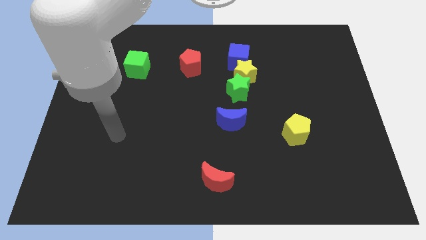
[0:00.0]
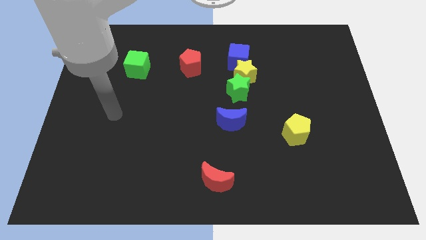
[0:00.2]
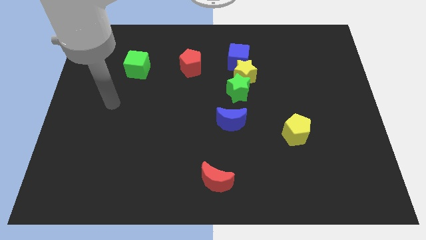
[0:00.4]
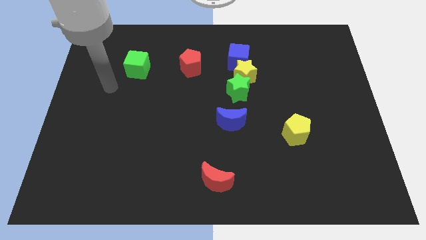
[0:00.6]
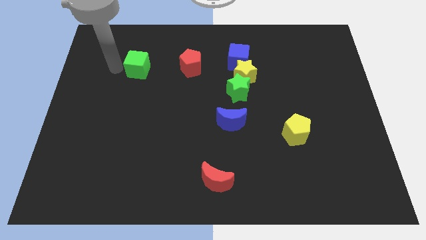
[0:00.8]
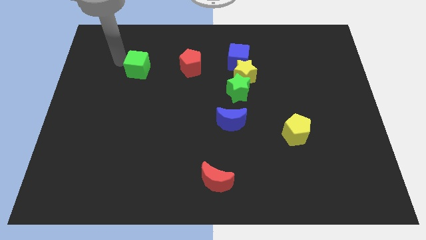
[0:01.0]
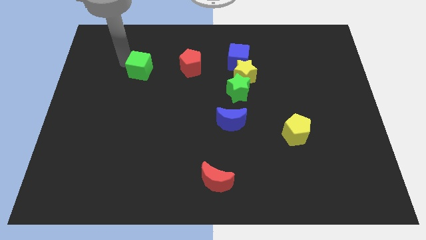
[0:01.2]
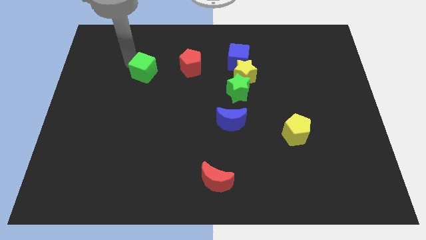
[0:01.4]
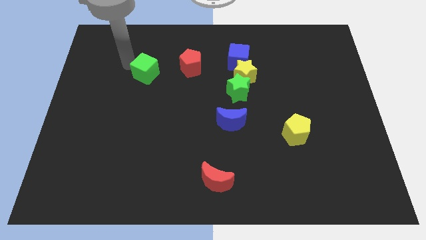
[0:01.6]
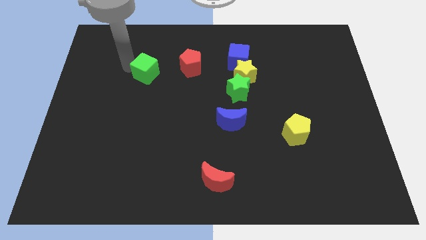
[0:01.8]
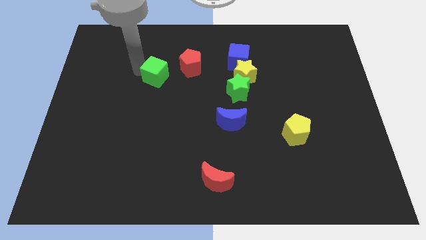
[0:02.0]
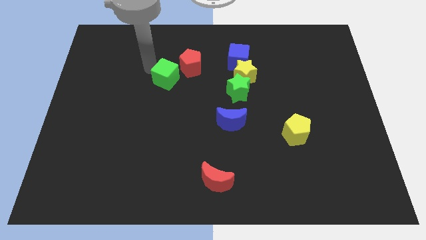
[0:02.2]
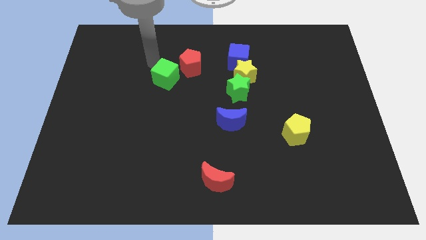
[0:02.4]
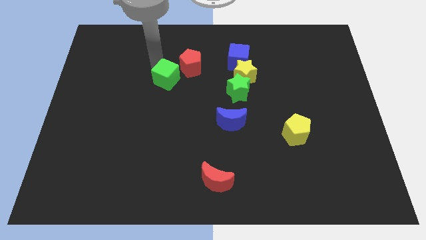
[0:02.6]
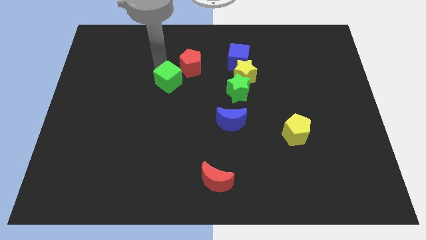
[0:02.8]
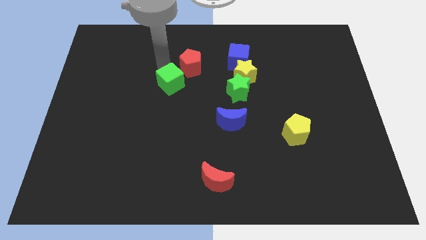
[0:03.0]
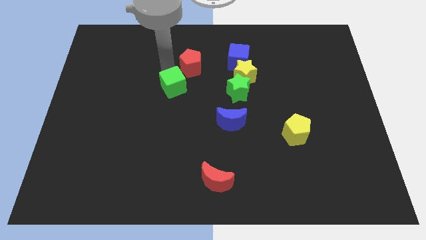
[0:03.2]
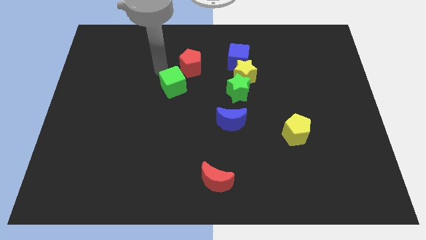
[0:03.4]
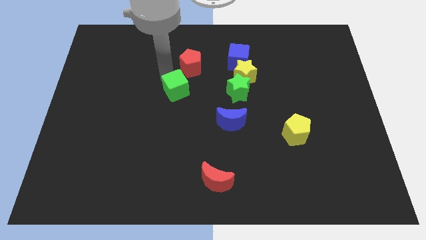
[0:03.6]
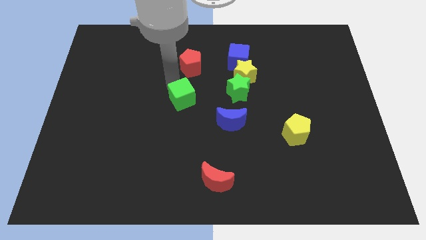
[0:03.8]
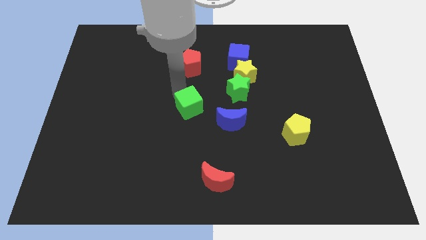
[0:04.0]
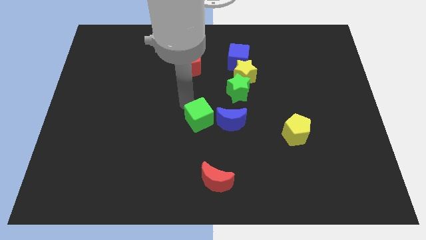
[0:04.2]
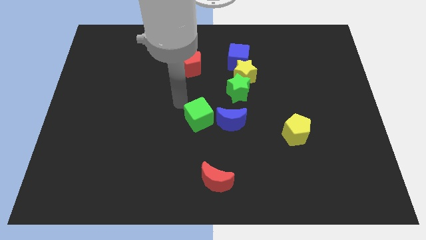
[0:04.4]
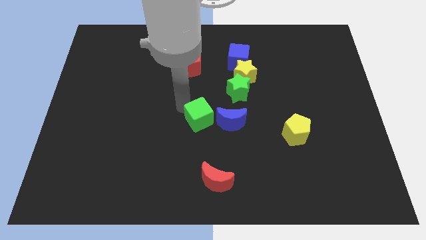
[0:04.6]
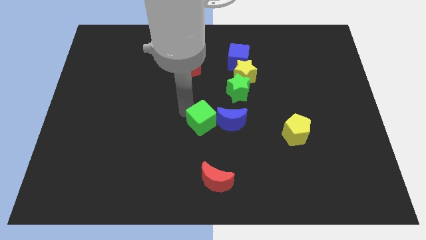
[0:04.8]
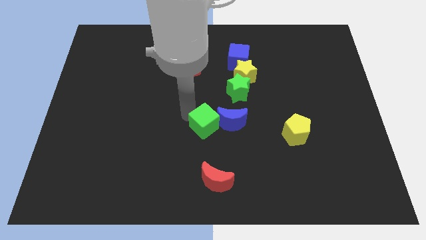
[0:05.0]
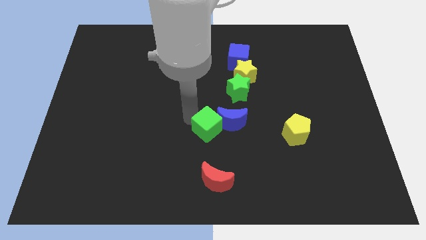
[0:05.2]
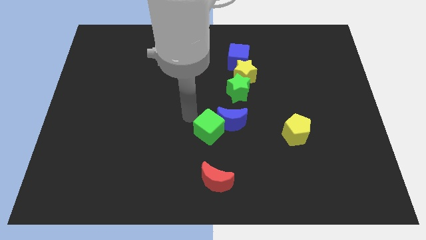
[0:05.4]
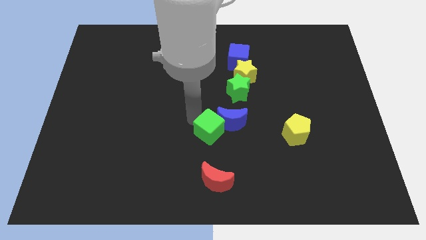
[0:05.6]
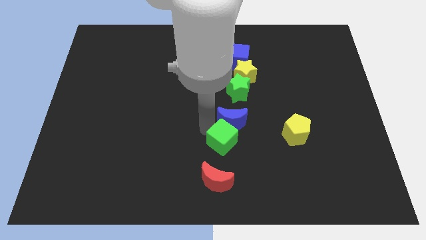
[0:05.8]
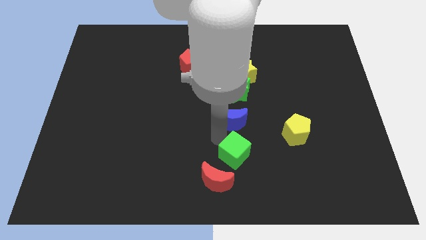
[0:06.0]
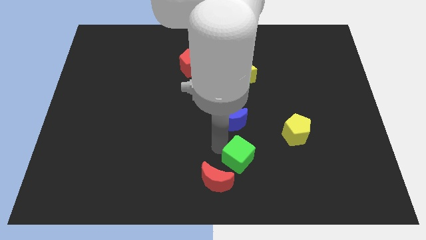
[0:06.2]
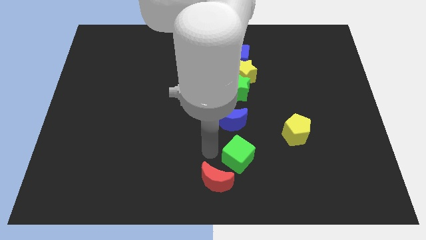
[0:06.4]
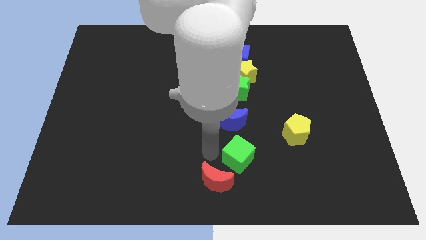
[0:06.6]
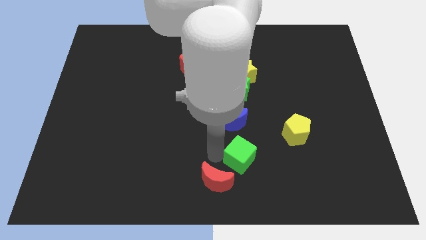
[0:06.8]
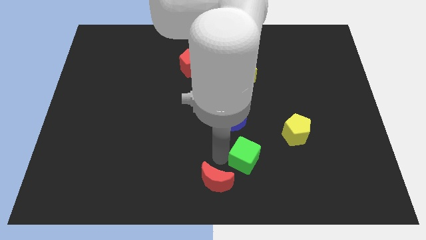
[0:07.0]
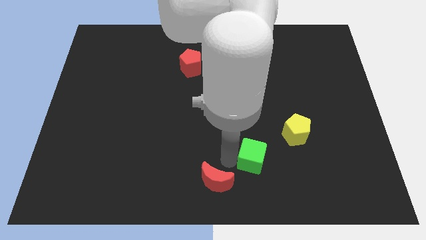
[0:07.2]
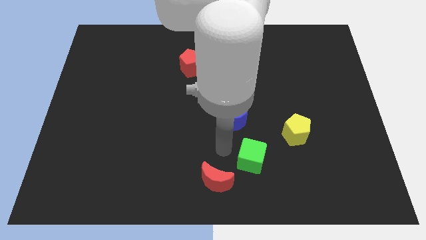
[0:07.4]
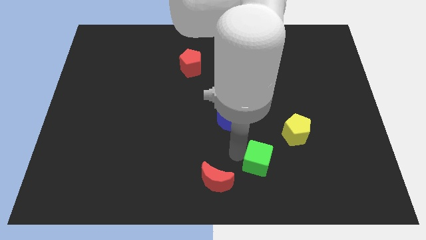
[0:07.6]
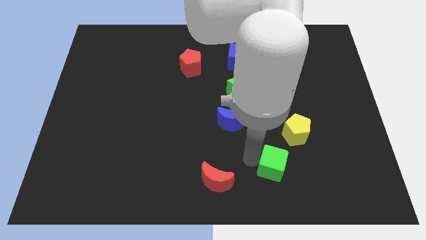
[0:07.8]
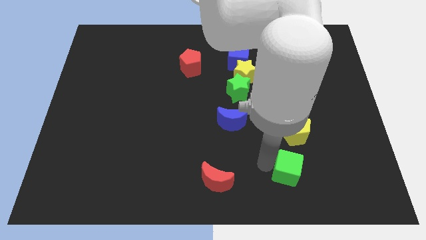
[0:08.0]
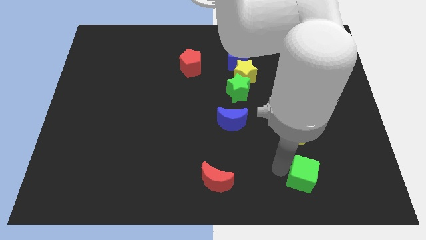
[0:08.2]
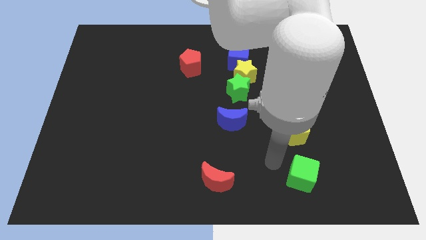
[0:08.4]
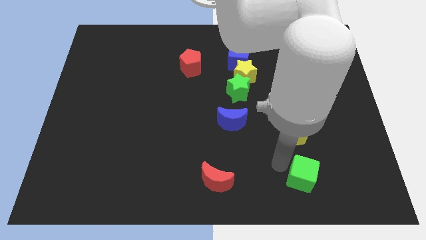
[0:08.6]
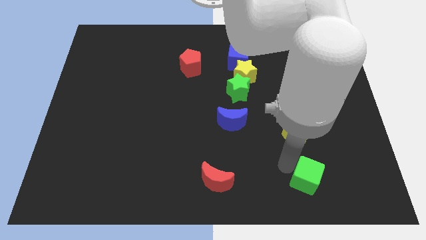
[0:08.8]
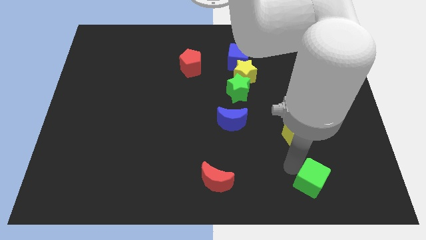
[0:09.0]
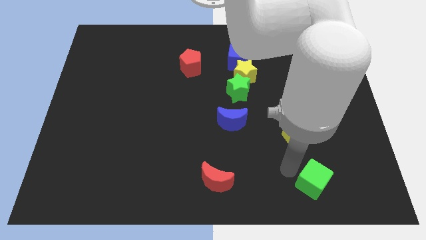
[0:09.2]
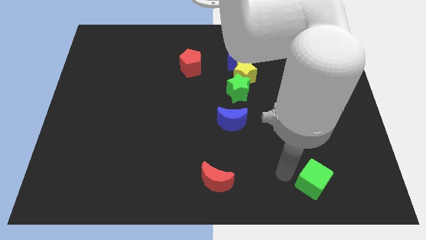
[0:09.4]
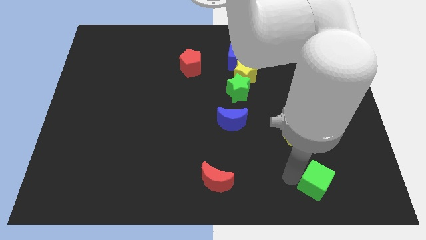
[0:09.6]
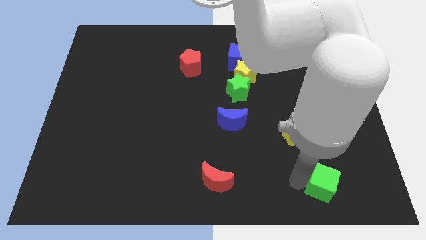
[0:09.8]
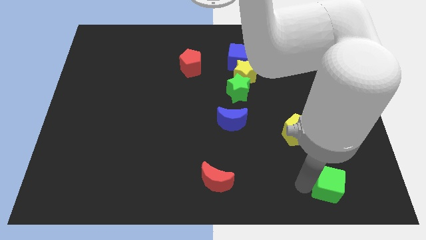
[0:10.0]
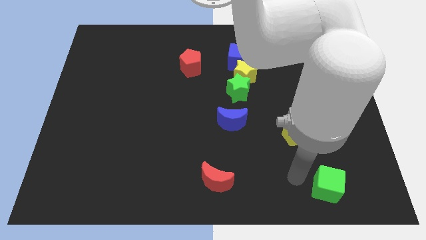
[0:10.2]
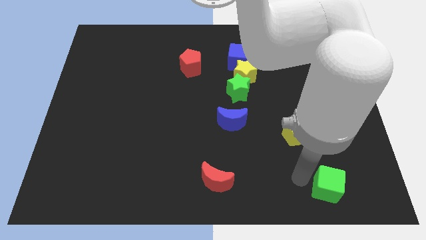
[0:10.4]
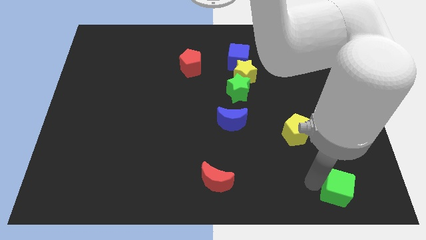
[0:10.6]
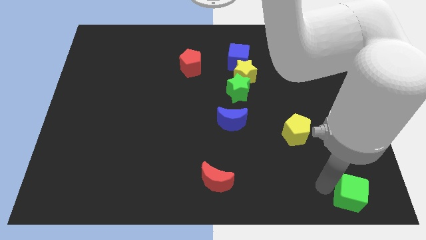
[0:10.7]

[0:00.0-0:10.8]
push the green cube to the bottom right
